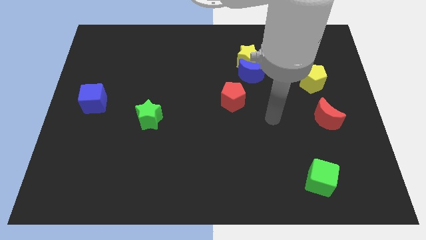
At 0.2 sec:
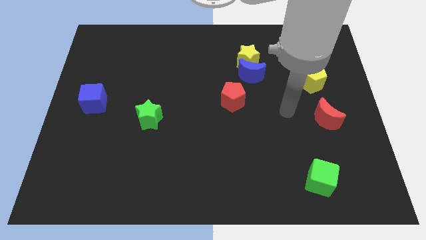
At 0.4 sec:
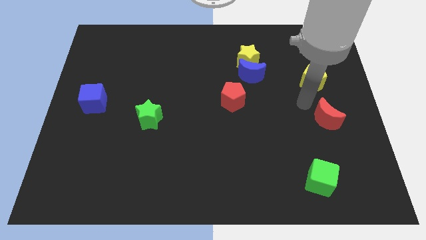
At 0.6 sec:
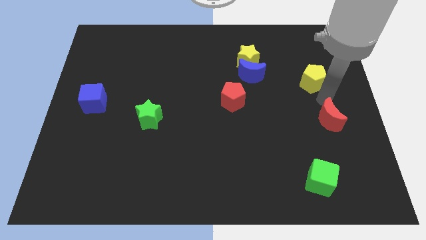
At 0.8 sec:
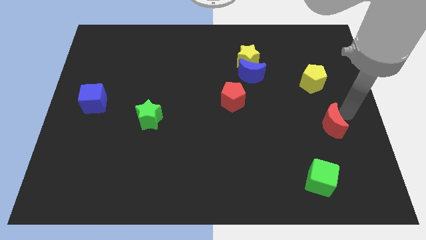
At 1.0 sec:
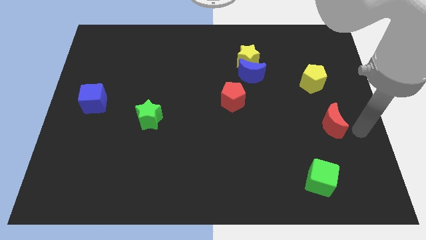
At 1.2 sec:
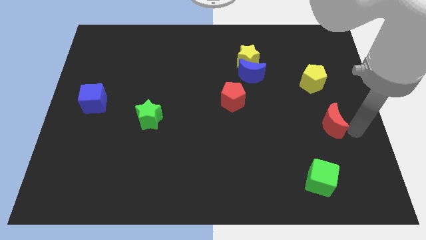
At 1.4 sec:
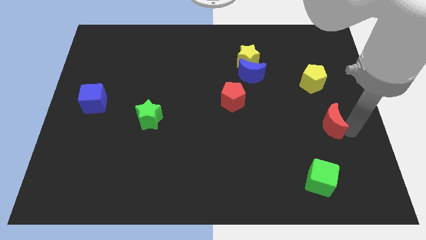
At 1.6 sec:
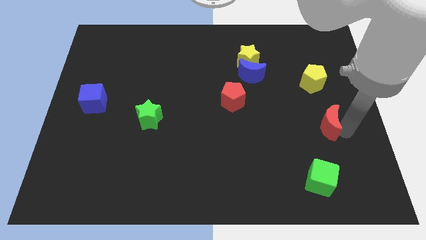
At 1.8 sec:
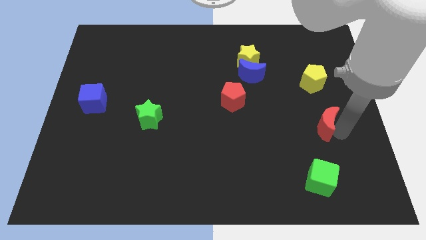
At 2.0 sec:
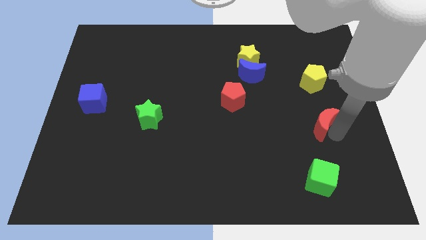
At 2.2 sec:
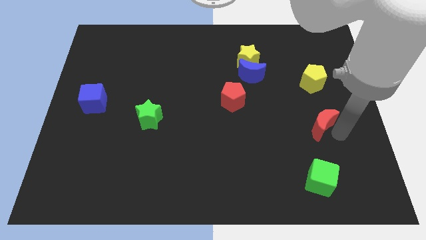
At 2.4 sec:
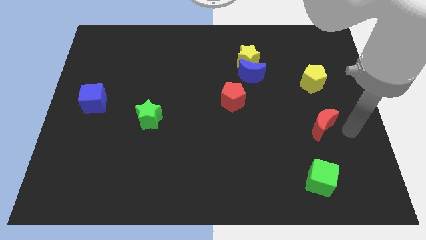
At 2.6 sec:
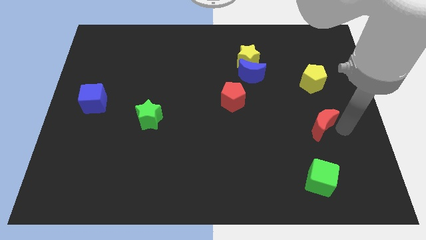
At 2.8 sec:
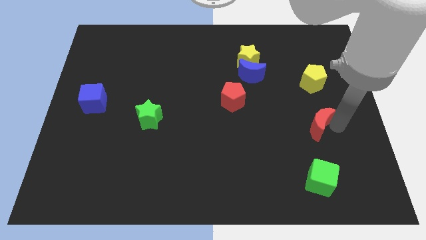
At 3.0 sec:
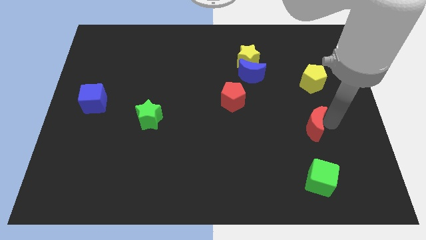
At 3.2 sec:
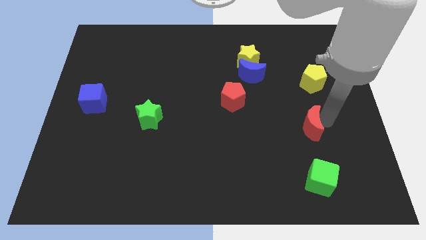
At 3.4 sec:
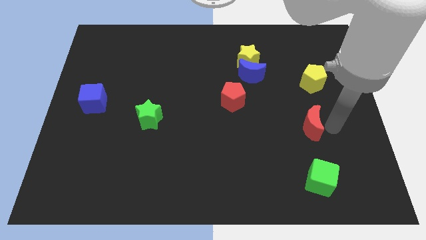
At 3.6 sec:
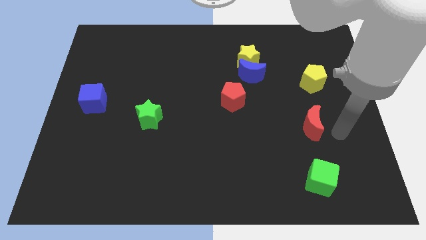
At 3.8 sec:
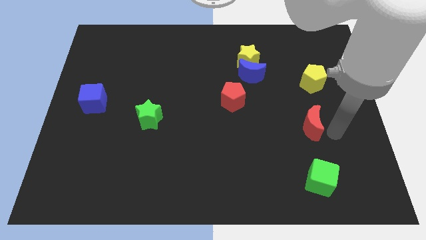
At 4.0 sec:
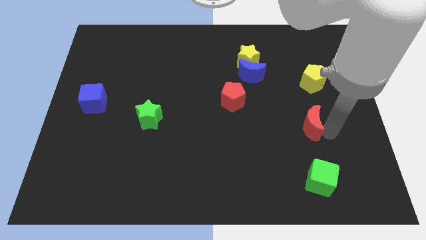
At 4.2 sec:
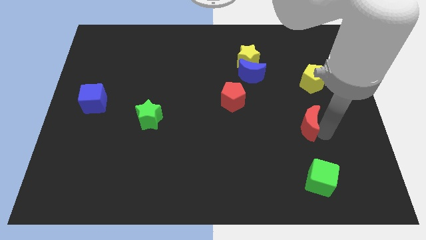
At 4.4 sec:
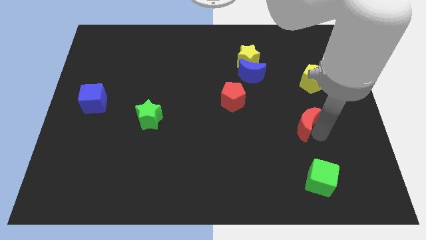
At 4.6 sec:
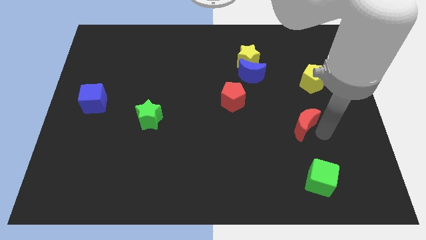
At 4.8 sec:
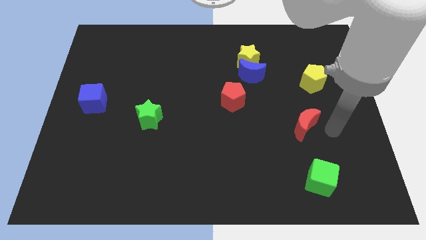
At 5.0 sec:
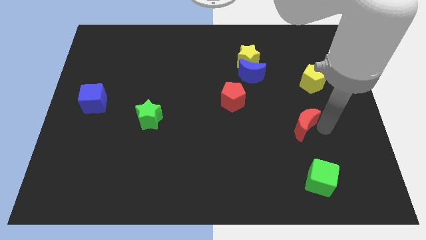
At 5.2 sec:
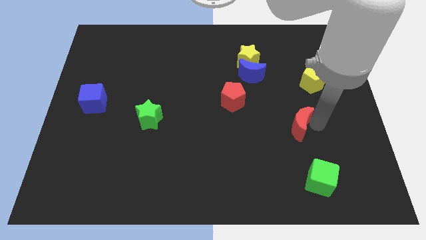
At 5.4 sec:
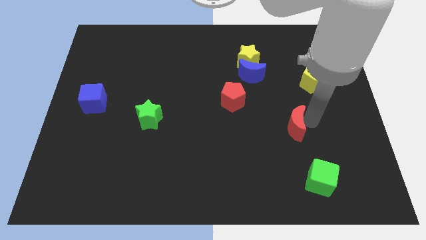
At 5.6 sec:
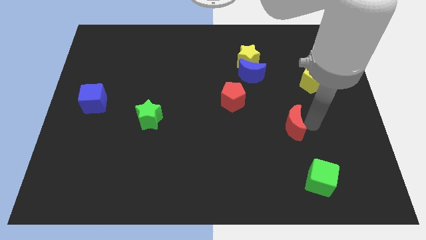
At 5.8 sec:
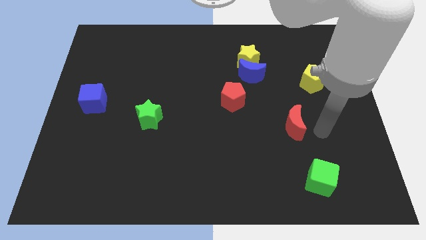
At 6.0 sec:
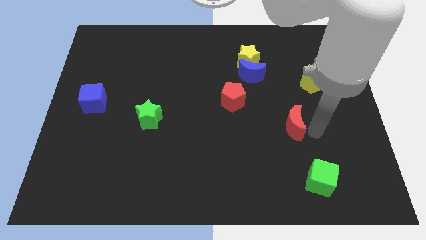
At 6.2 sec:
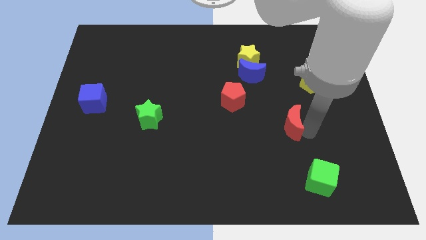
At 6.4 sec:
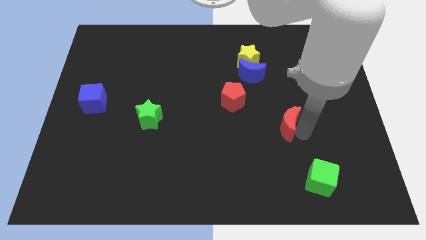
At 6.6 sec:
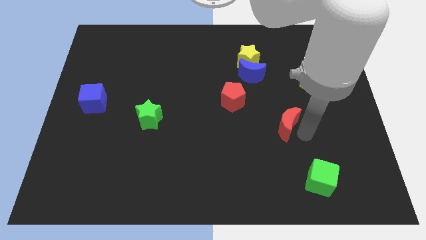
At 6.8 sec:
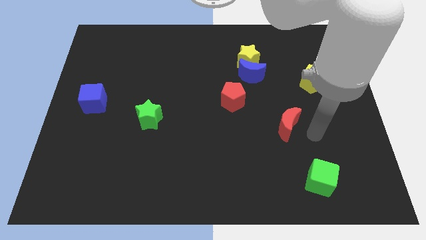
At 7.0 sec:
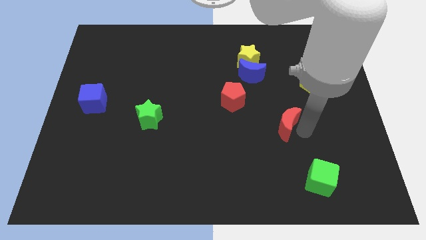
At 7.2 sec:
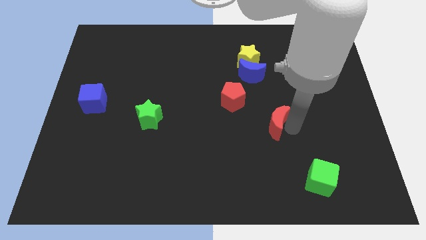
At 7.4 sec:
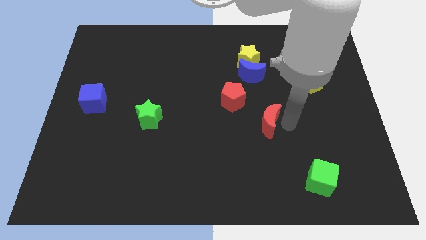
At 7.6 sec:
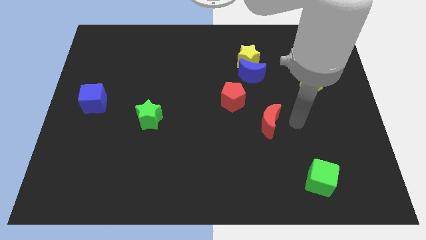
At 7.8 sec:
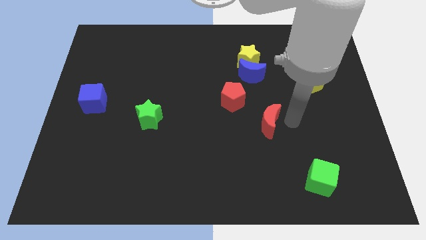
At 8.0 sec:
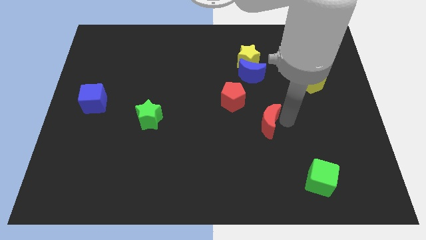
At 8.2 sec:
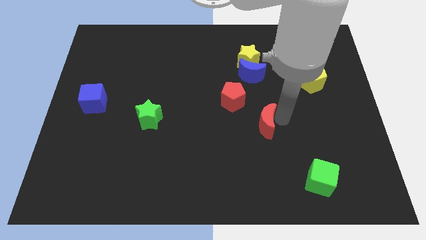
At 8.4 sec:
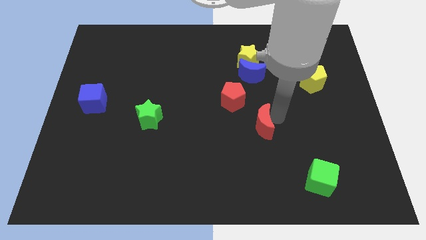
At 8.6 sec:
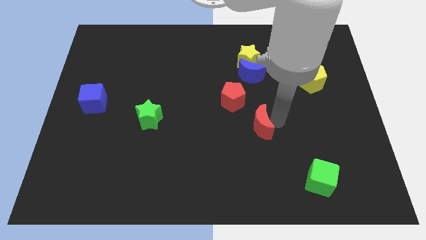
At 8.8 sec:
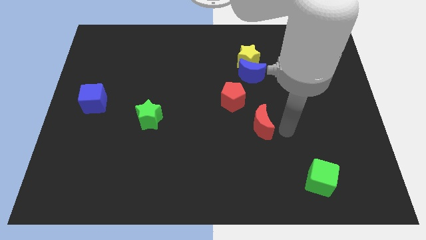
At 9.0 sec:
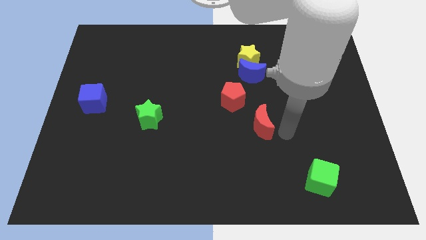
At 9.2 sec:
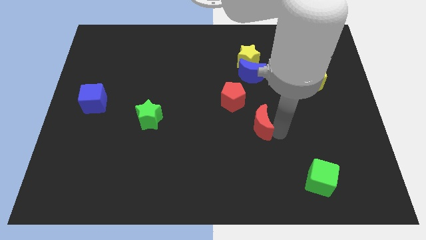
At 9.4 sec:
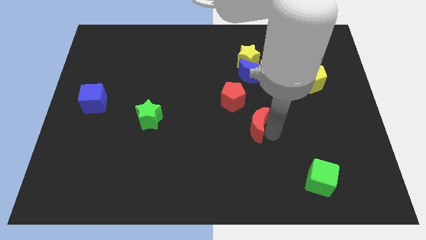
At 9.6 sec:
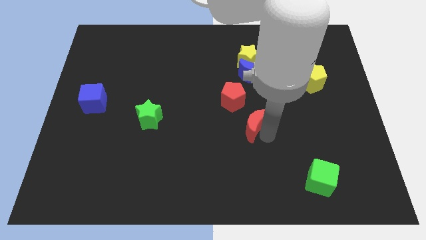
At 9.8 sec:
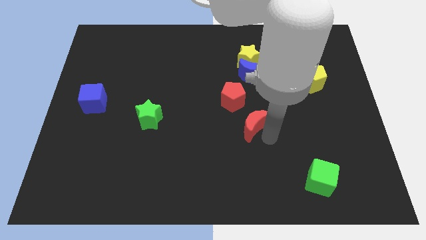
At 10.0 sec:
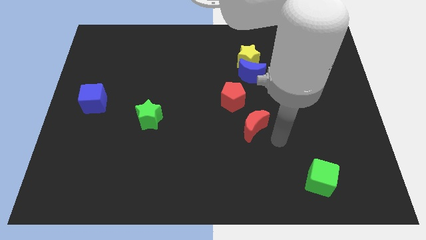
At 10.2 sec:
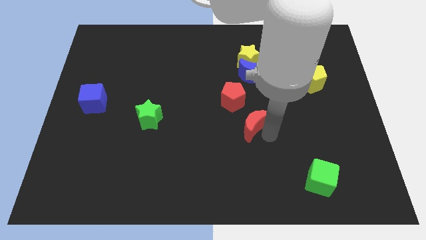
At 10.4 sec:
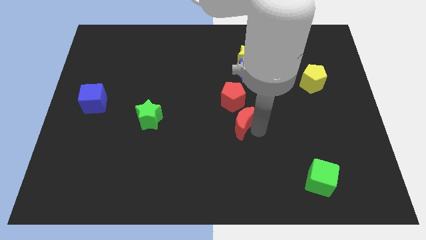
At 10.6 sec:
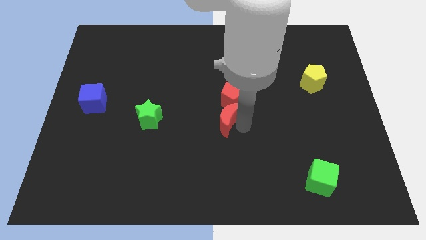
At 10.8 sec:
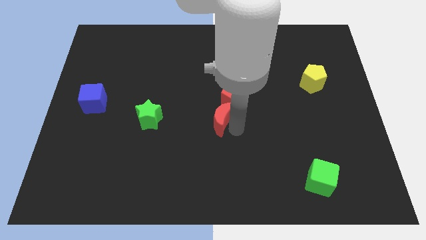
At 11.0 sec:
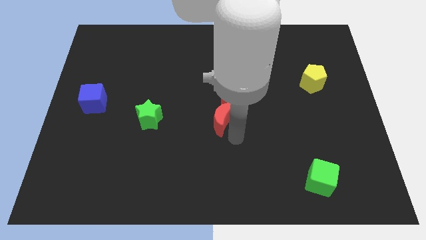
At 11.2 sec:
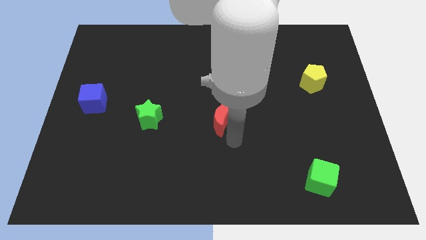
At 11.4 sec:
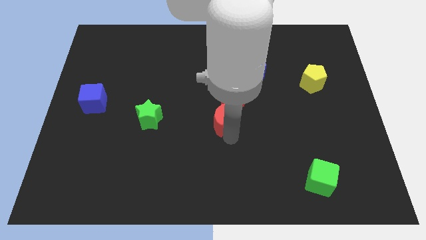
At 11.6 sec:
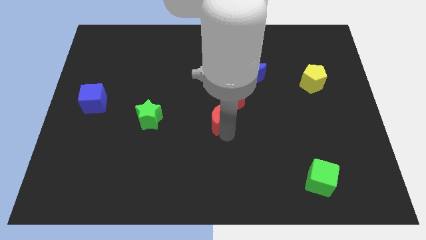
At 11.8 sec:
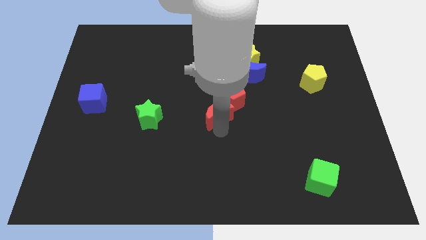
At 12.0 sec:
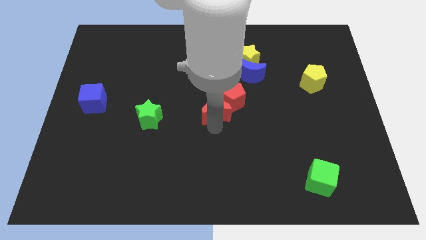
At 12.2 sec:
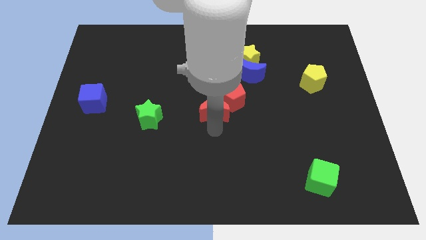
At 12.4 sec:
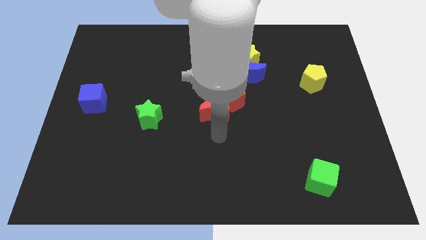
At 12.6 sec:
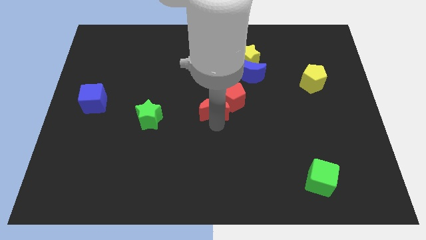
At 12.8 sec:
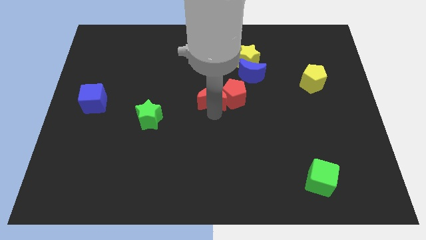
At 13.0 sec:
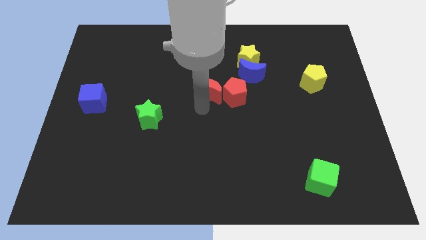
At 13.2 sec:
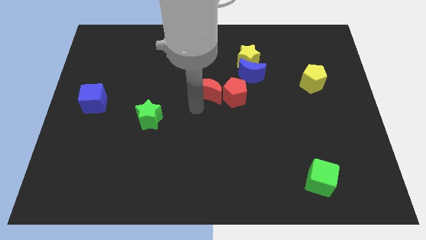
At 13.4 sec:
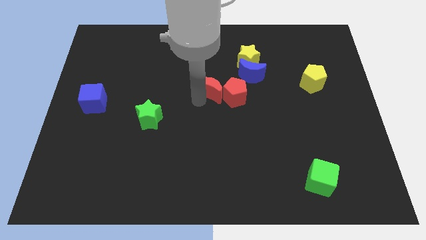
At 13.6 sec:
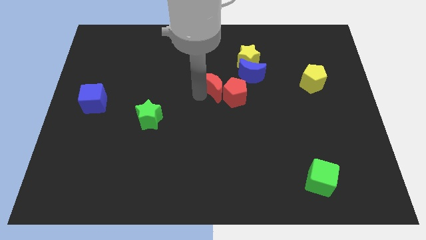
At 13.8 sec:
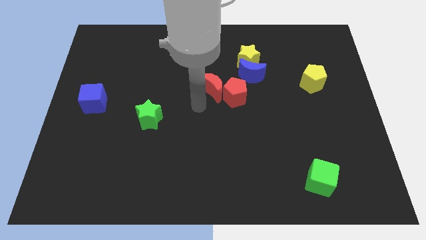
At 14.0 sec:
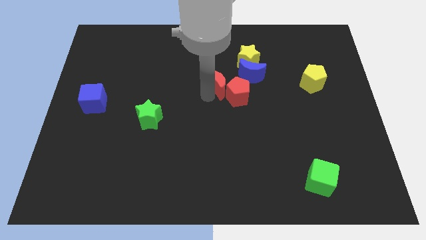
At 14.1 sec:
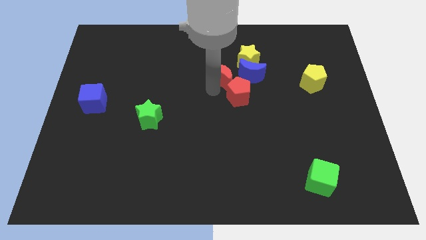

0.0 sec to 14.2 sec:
move the red moon to the top of the red pentagon

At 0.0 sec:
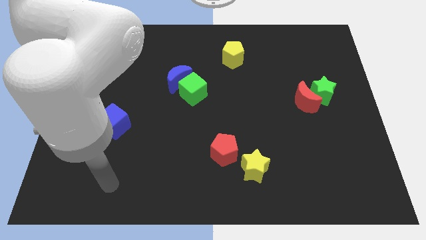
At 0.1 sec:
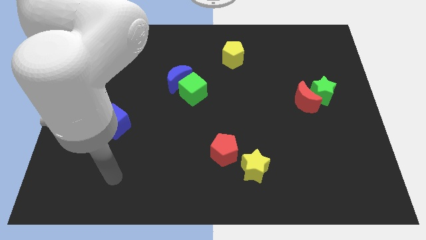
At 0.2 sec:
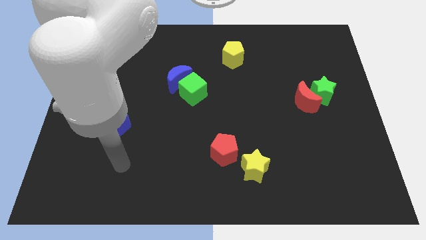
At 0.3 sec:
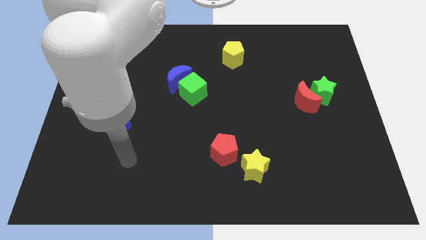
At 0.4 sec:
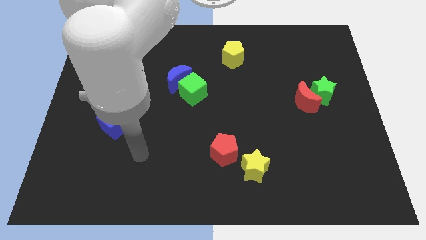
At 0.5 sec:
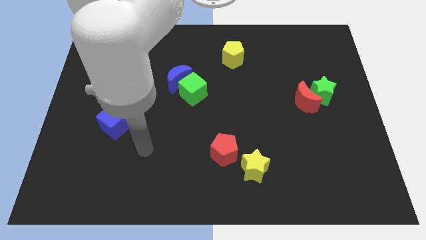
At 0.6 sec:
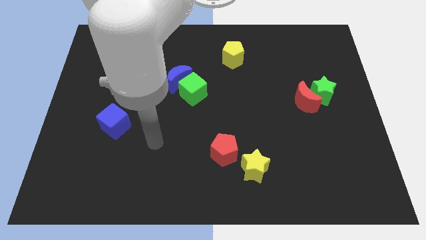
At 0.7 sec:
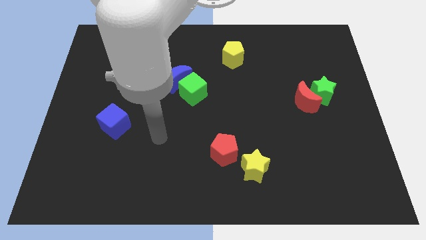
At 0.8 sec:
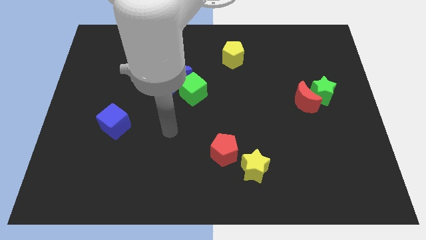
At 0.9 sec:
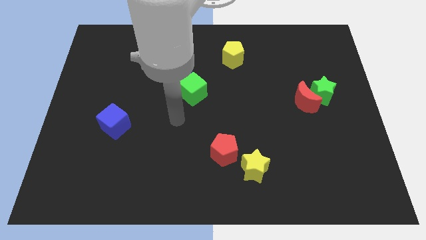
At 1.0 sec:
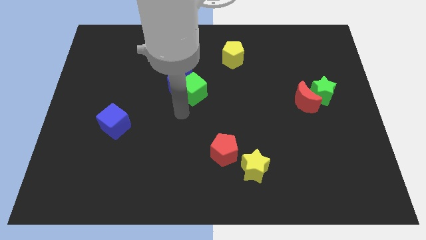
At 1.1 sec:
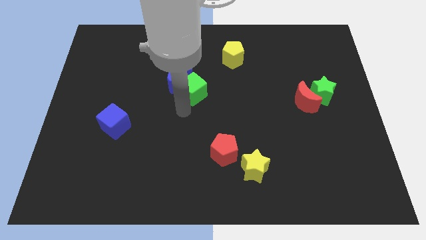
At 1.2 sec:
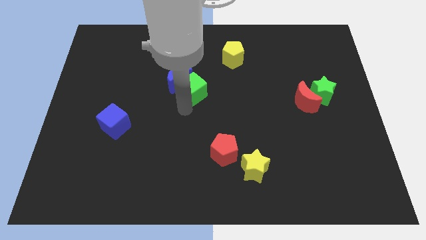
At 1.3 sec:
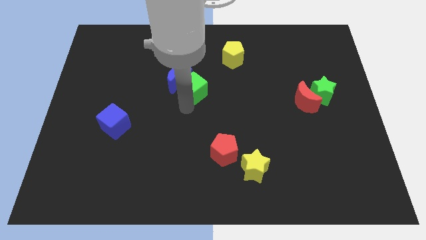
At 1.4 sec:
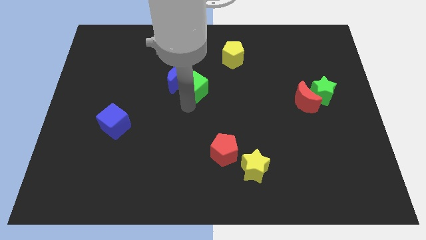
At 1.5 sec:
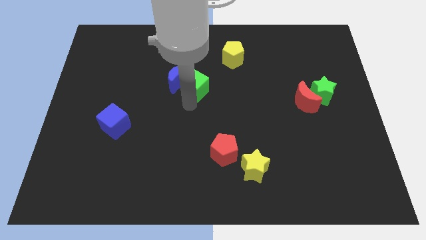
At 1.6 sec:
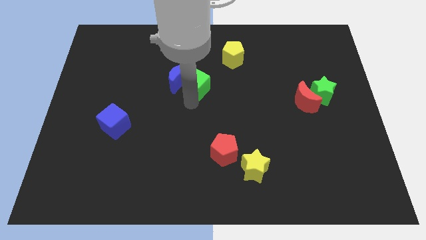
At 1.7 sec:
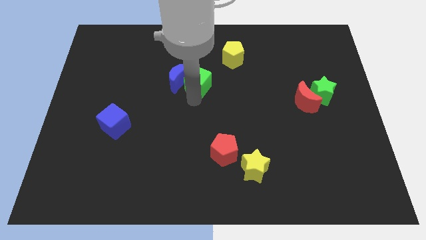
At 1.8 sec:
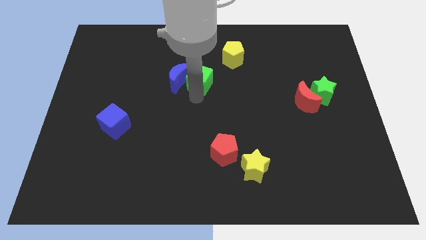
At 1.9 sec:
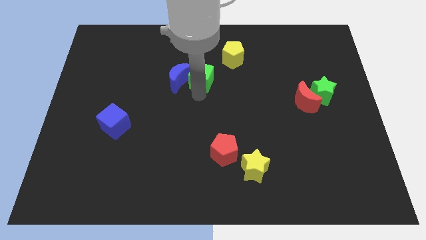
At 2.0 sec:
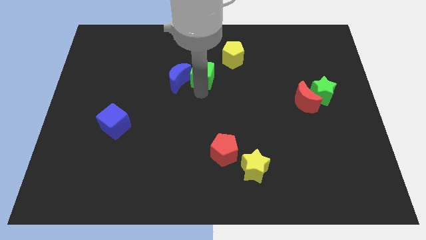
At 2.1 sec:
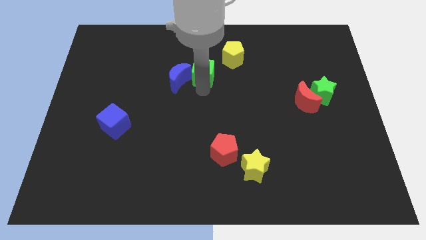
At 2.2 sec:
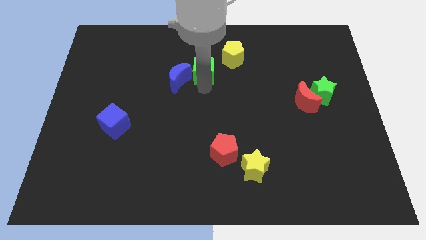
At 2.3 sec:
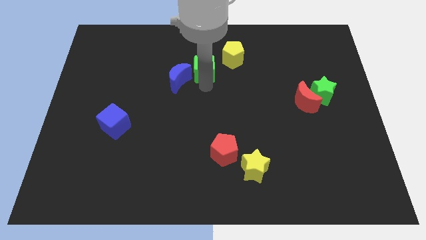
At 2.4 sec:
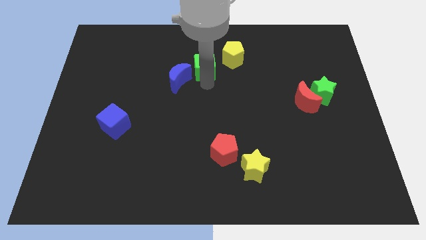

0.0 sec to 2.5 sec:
put the green cube to the left side of the yellow pentagon
